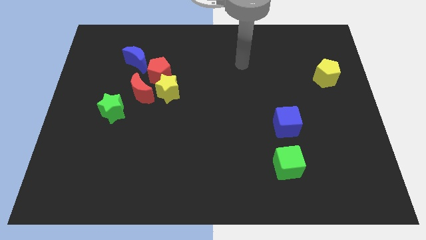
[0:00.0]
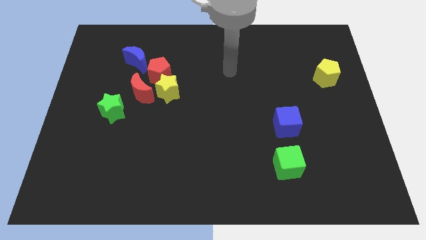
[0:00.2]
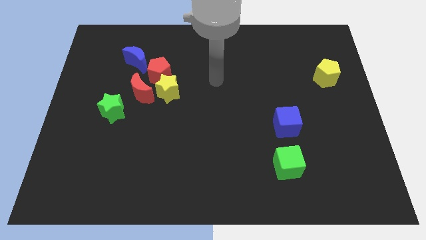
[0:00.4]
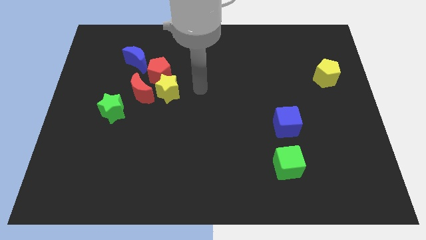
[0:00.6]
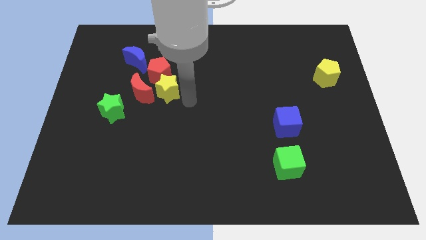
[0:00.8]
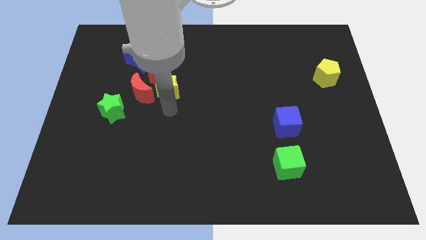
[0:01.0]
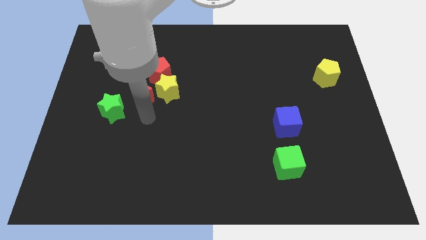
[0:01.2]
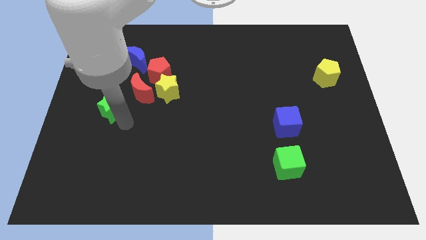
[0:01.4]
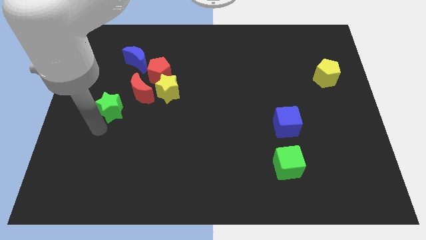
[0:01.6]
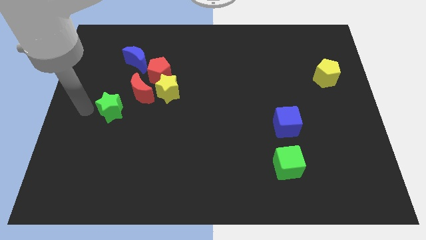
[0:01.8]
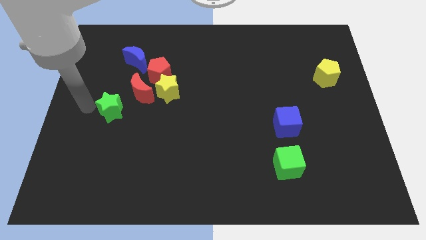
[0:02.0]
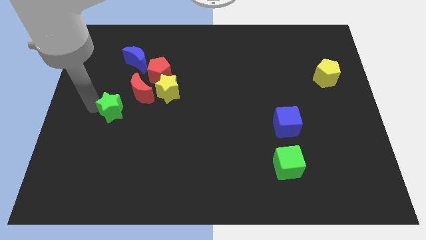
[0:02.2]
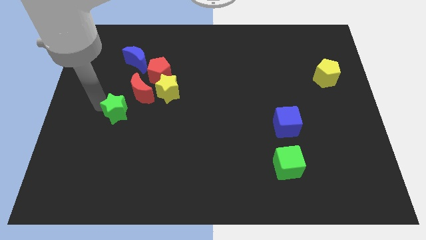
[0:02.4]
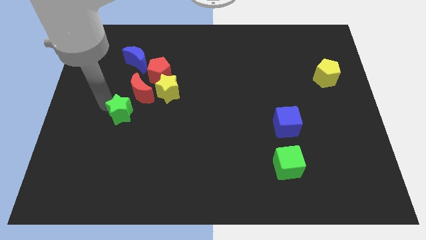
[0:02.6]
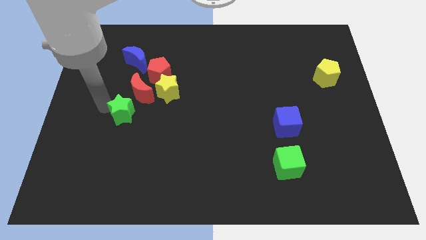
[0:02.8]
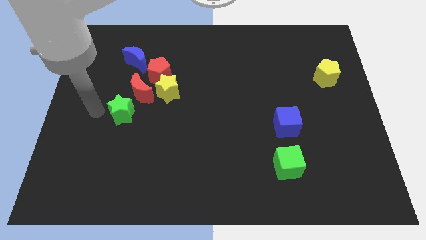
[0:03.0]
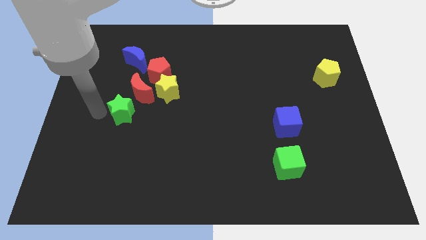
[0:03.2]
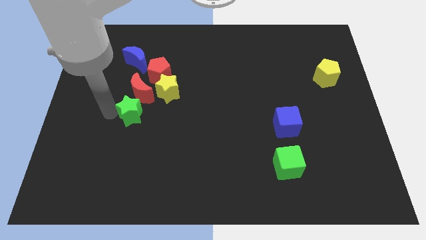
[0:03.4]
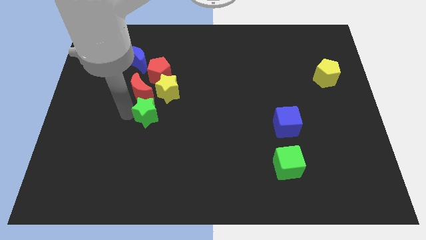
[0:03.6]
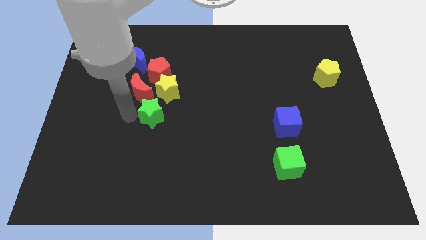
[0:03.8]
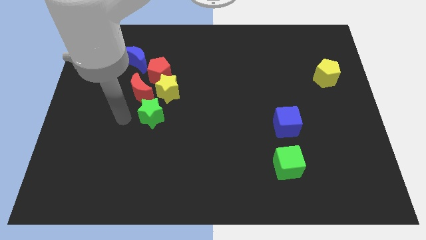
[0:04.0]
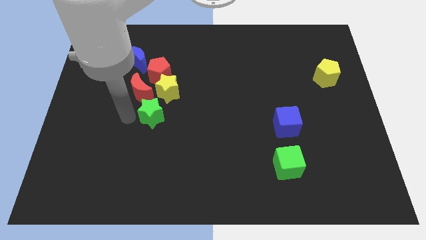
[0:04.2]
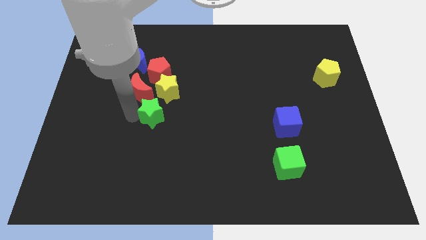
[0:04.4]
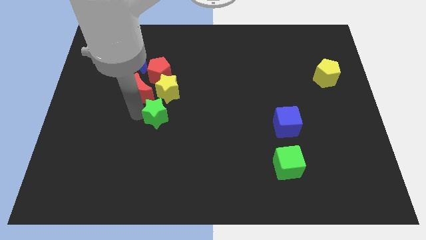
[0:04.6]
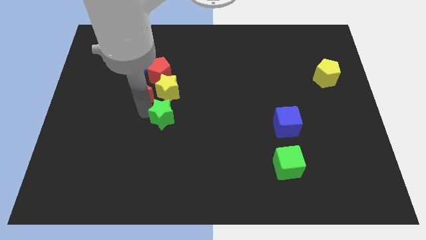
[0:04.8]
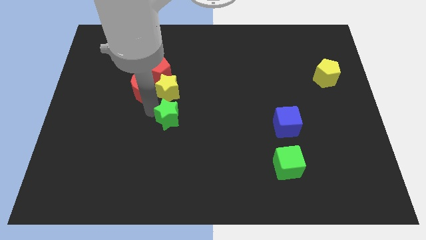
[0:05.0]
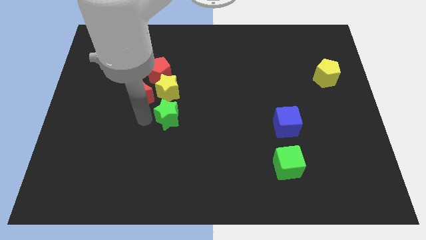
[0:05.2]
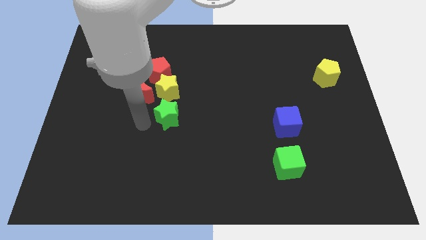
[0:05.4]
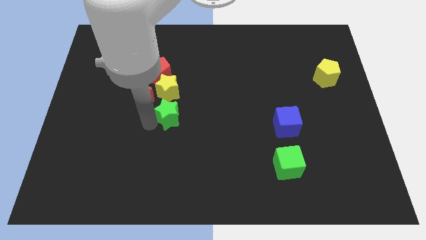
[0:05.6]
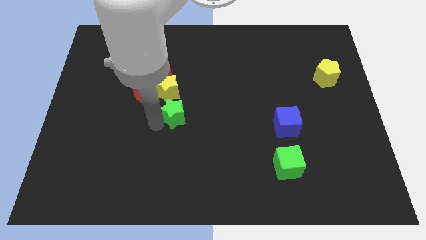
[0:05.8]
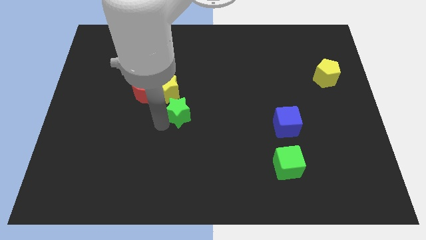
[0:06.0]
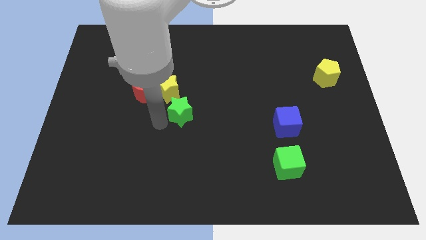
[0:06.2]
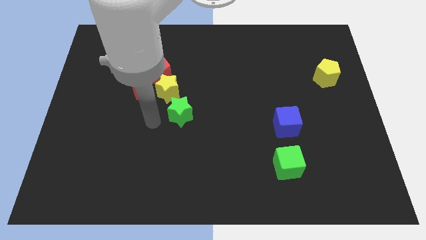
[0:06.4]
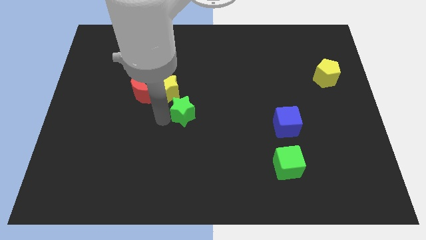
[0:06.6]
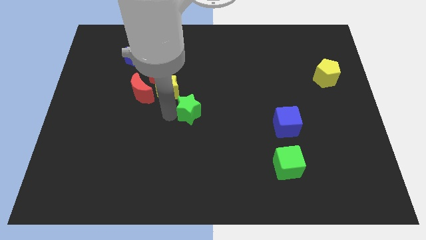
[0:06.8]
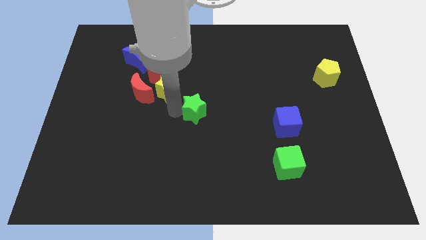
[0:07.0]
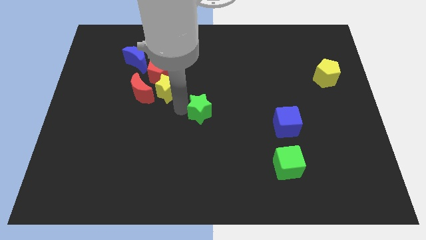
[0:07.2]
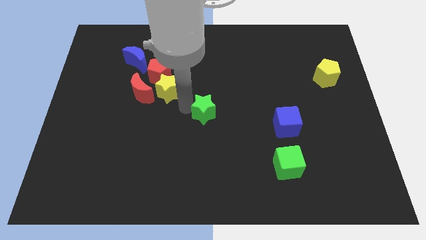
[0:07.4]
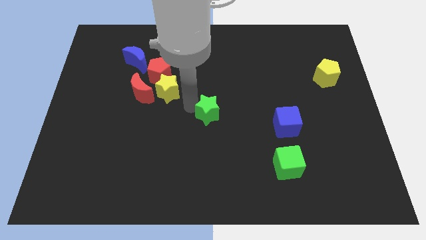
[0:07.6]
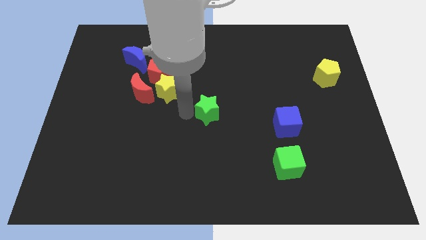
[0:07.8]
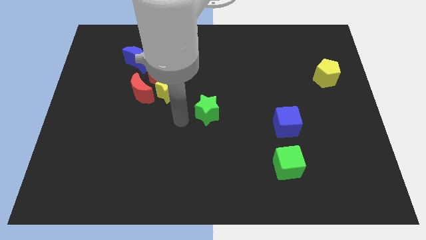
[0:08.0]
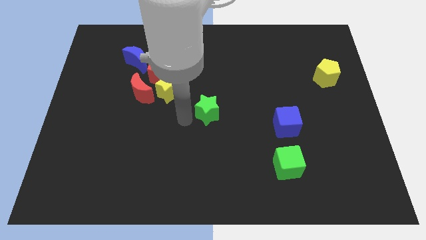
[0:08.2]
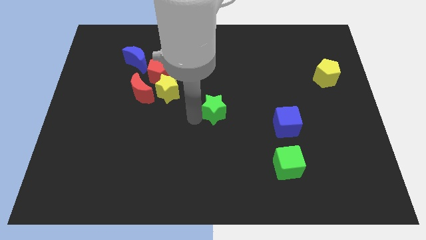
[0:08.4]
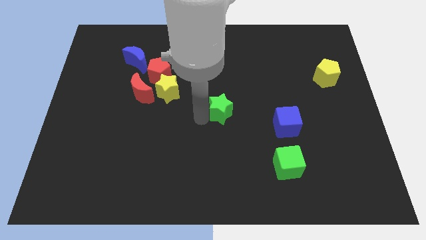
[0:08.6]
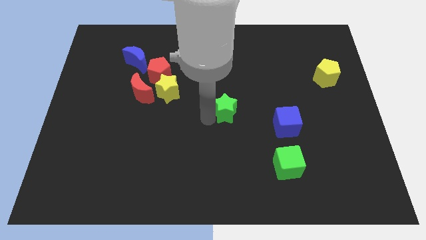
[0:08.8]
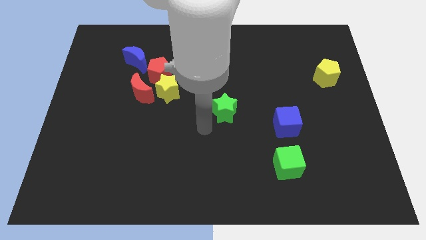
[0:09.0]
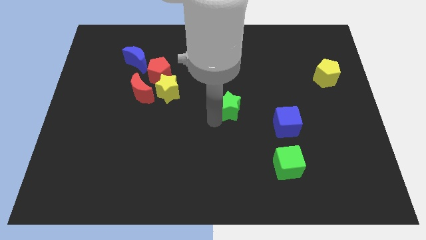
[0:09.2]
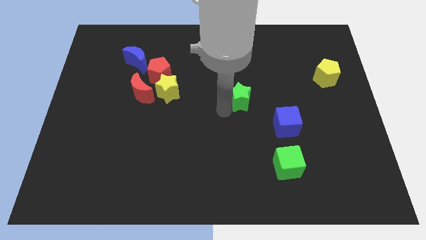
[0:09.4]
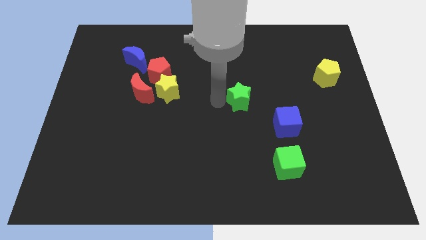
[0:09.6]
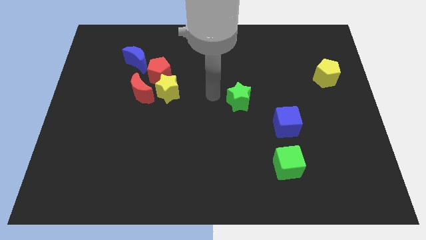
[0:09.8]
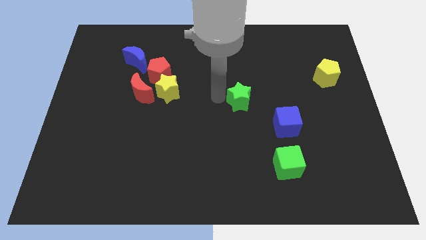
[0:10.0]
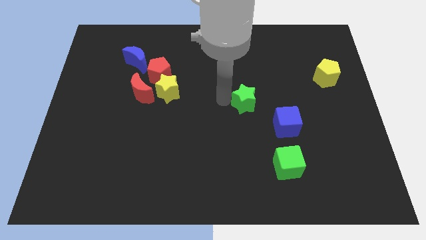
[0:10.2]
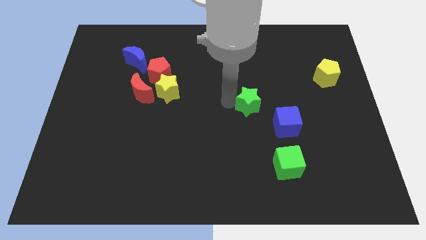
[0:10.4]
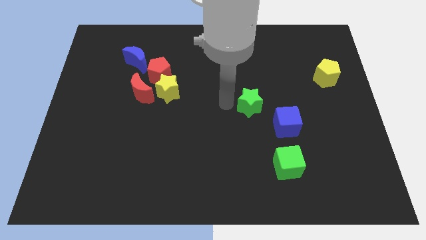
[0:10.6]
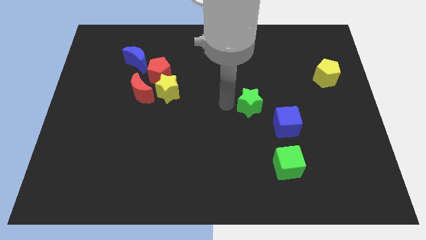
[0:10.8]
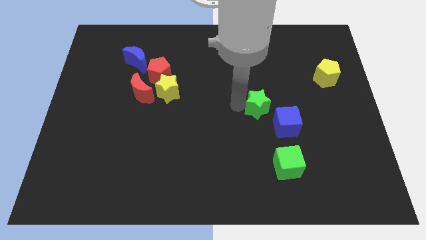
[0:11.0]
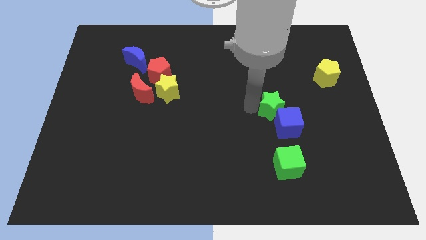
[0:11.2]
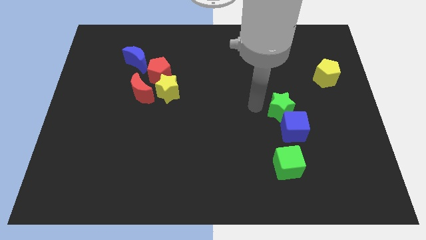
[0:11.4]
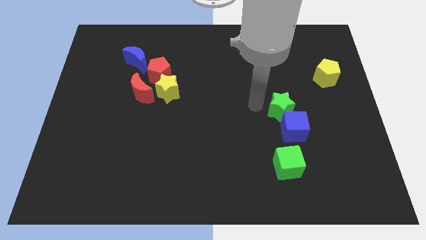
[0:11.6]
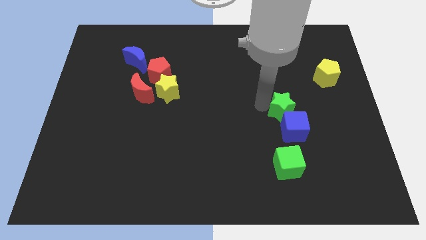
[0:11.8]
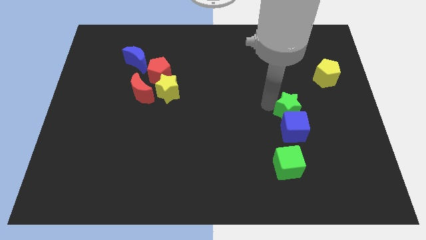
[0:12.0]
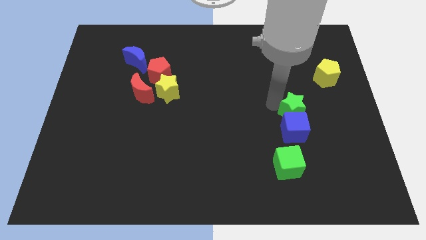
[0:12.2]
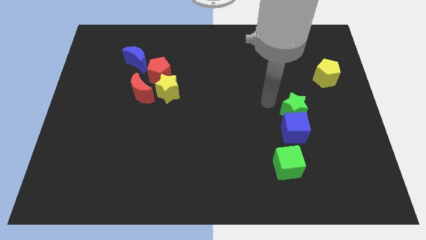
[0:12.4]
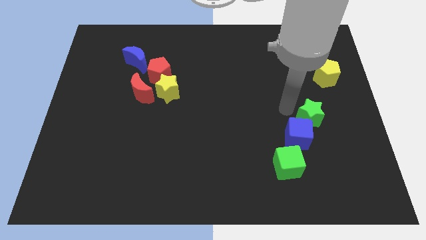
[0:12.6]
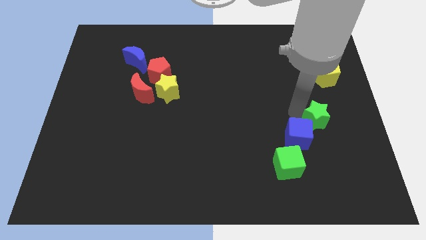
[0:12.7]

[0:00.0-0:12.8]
put the green star to the right of the blue cube

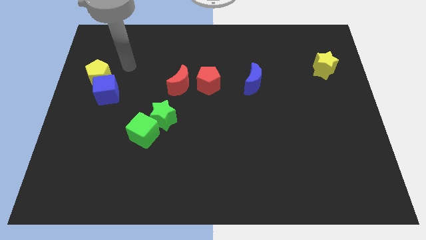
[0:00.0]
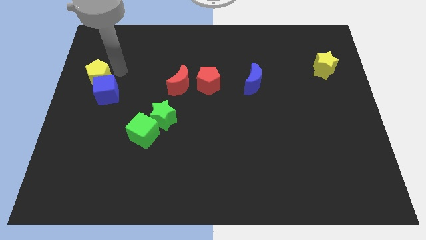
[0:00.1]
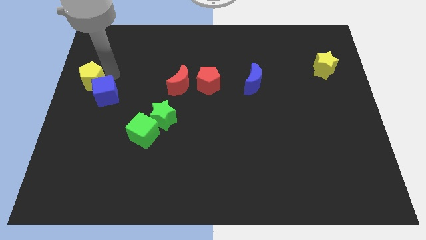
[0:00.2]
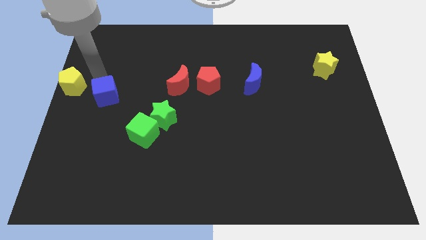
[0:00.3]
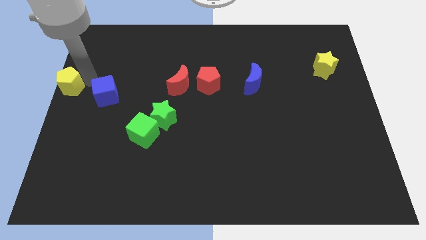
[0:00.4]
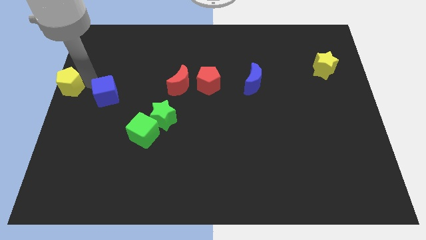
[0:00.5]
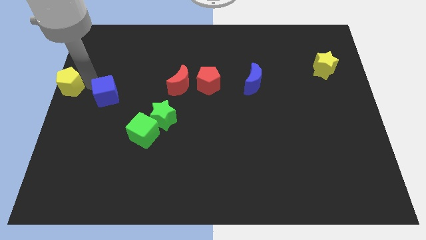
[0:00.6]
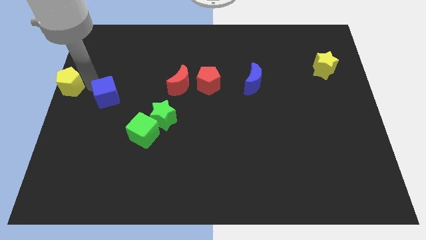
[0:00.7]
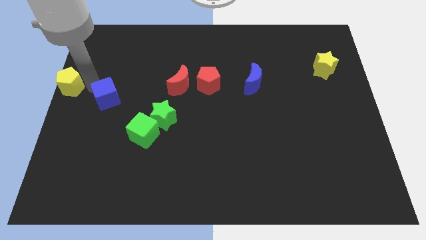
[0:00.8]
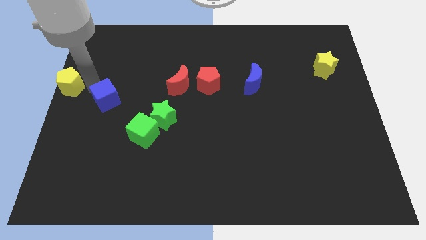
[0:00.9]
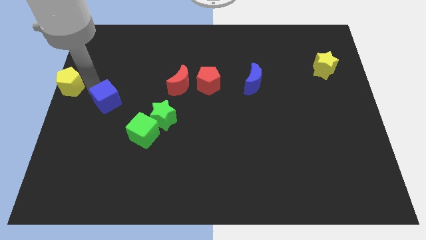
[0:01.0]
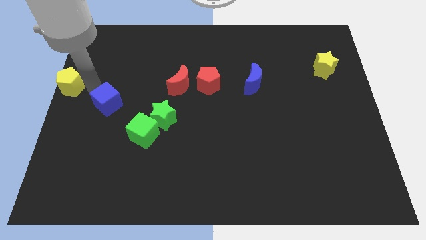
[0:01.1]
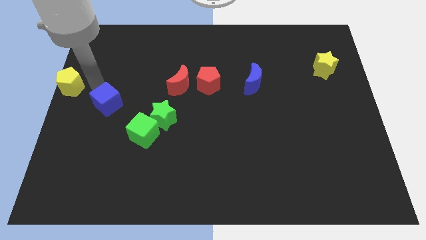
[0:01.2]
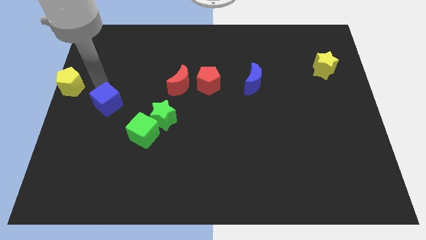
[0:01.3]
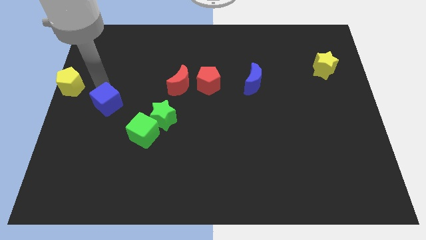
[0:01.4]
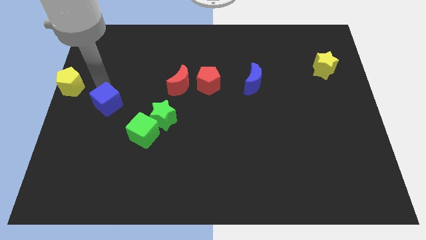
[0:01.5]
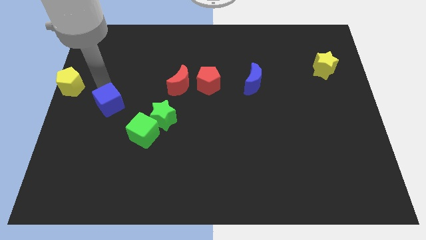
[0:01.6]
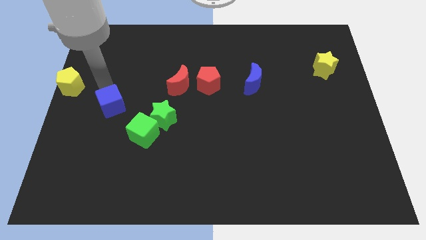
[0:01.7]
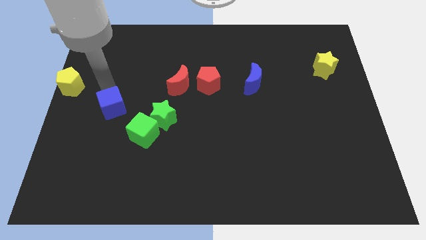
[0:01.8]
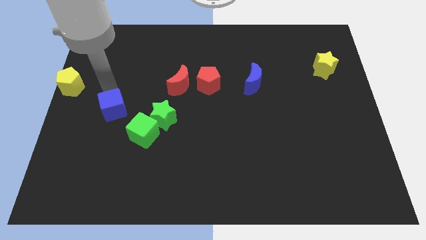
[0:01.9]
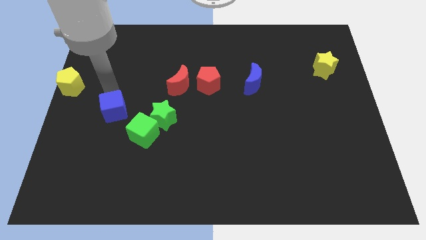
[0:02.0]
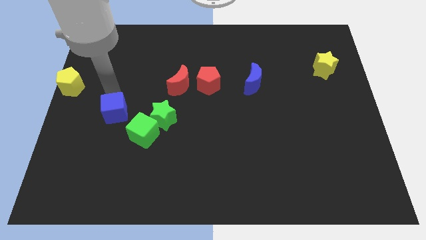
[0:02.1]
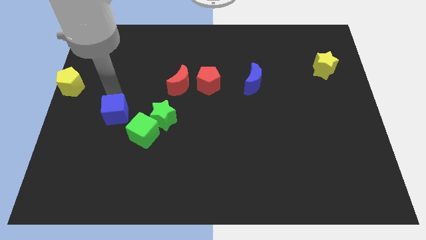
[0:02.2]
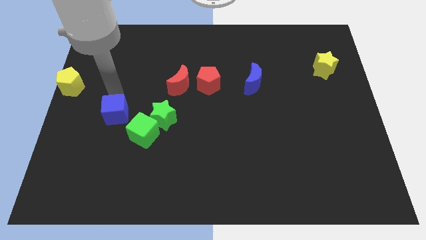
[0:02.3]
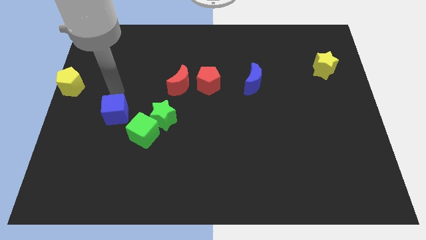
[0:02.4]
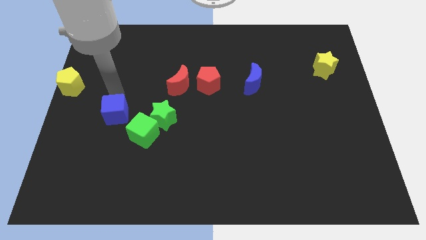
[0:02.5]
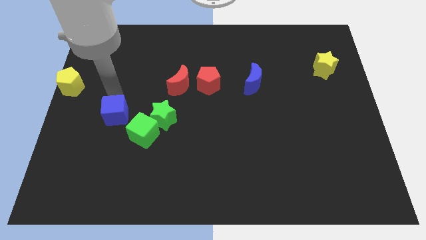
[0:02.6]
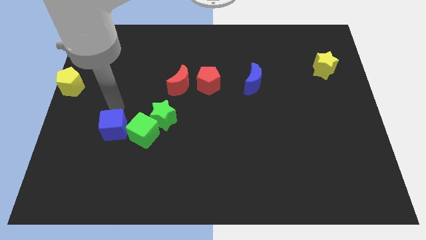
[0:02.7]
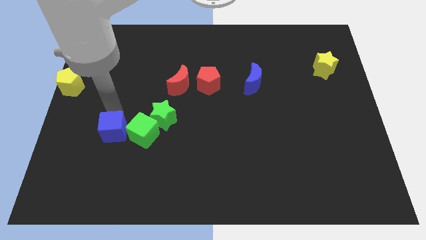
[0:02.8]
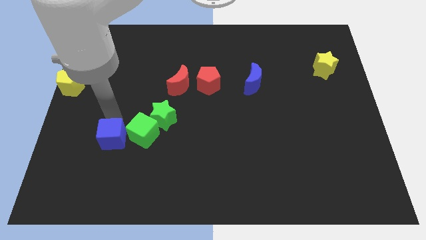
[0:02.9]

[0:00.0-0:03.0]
move the blue cube to the bottom left side of the green cube
